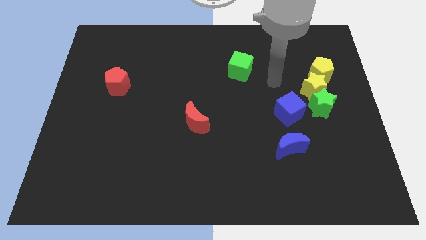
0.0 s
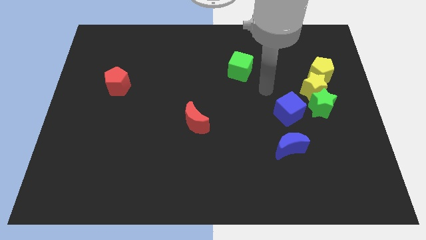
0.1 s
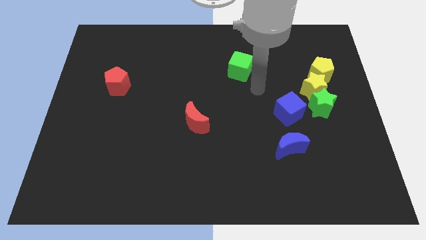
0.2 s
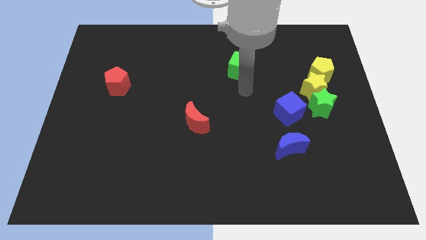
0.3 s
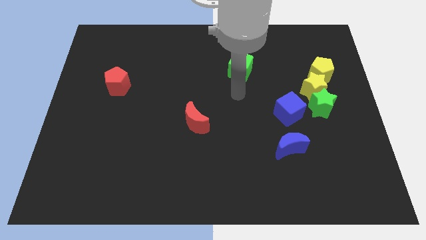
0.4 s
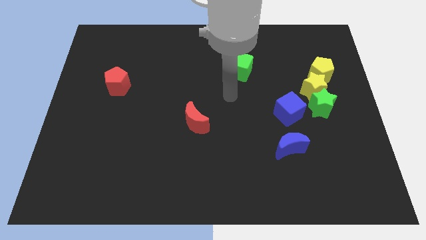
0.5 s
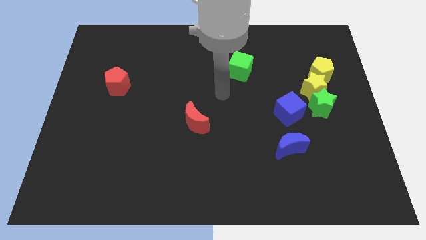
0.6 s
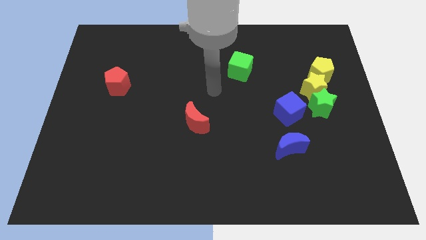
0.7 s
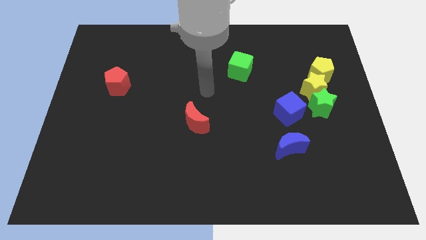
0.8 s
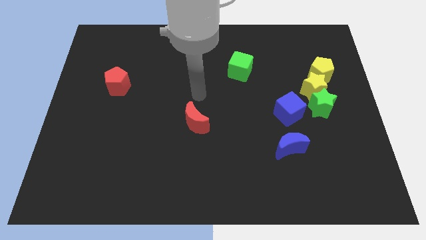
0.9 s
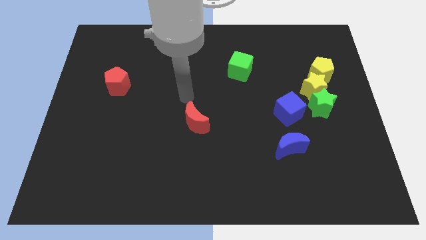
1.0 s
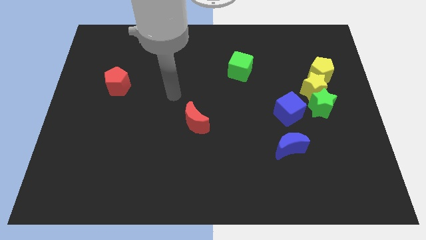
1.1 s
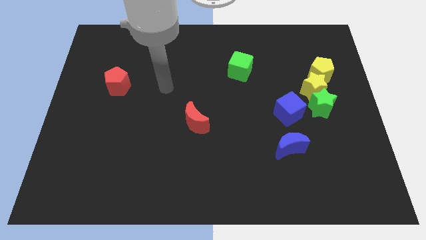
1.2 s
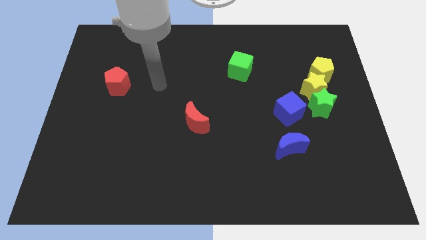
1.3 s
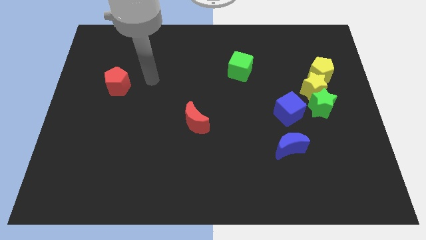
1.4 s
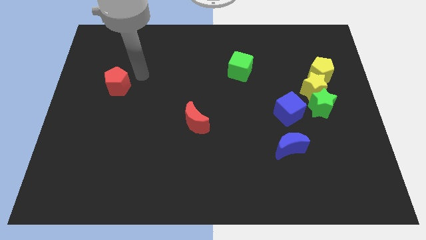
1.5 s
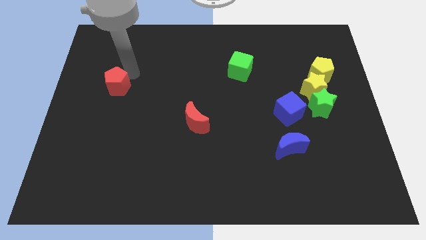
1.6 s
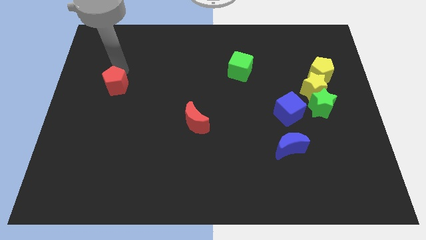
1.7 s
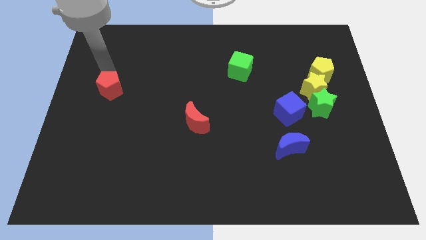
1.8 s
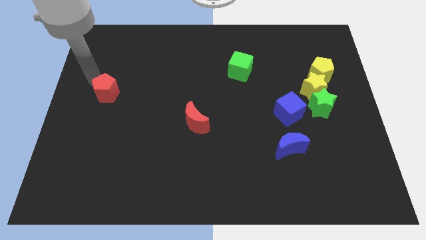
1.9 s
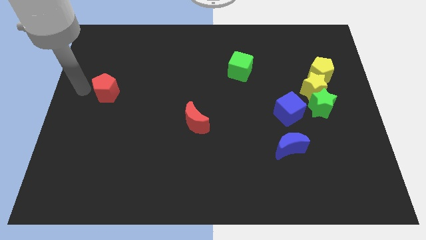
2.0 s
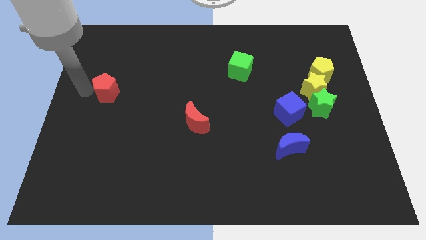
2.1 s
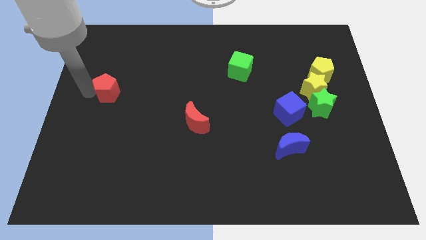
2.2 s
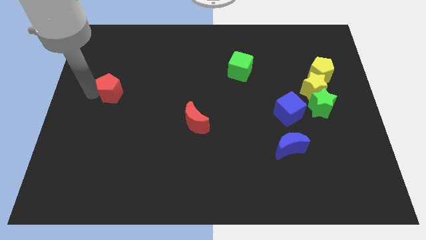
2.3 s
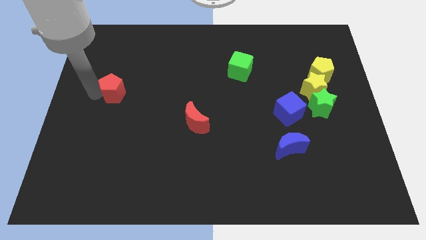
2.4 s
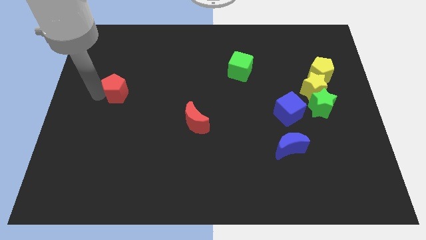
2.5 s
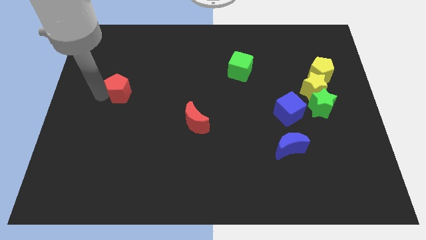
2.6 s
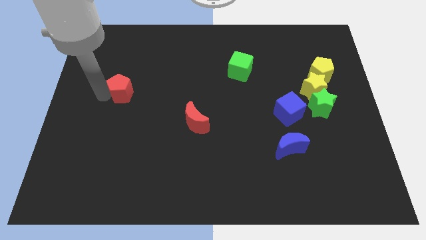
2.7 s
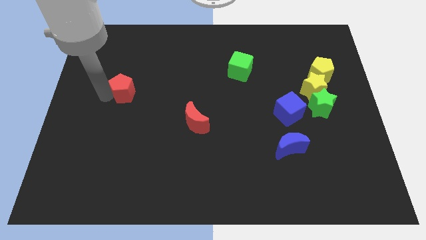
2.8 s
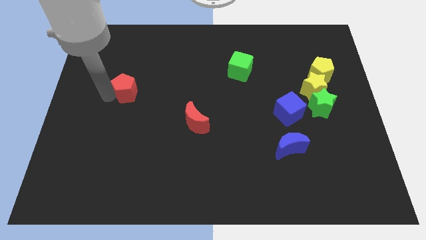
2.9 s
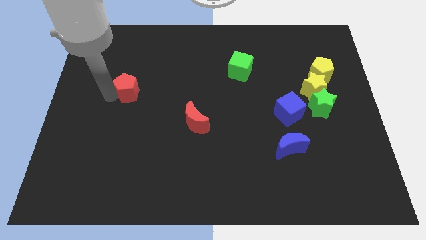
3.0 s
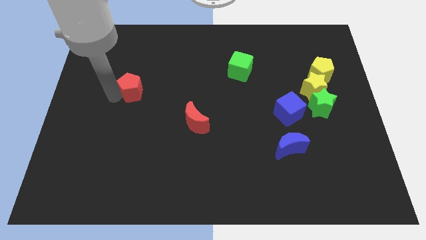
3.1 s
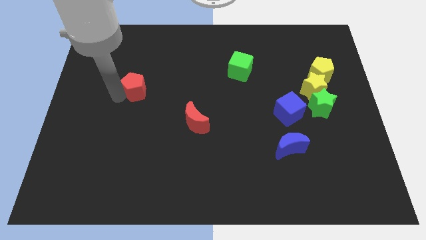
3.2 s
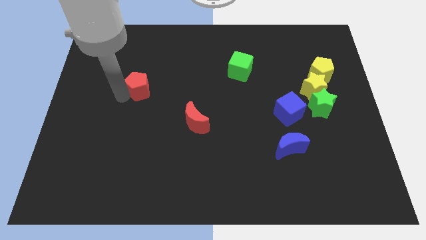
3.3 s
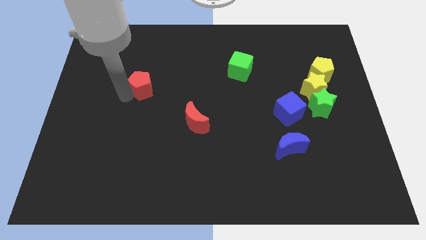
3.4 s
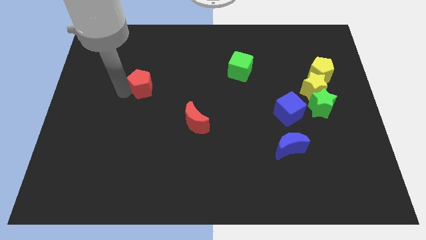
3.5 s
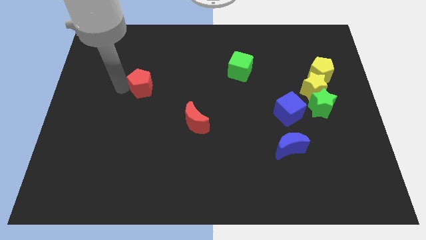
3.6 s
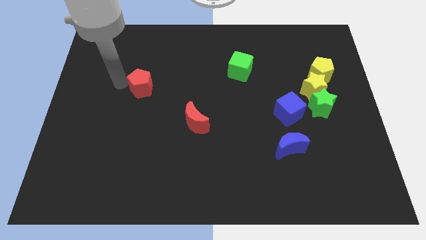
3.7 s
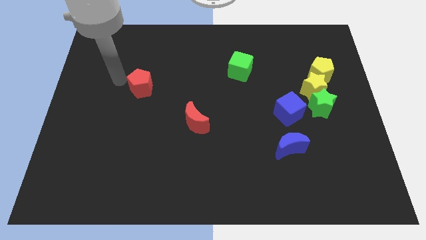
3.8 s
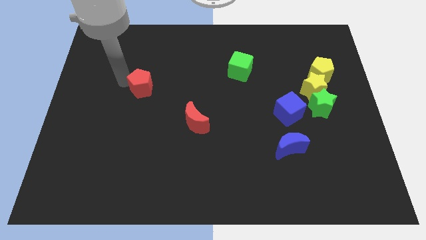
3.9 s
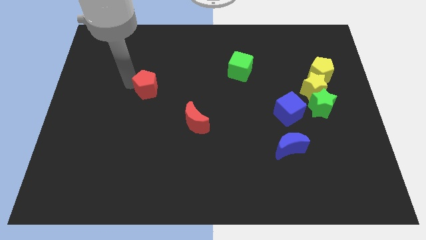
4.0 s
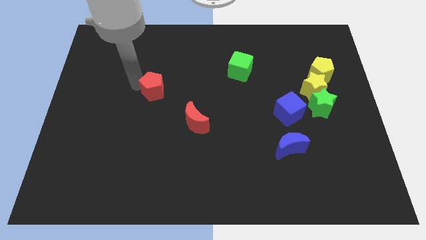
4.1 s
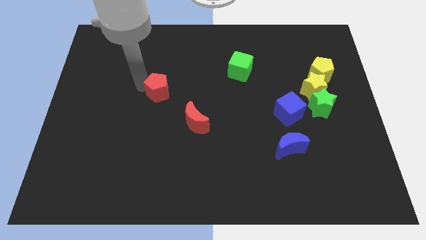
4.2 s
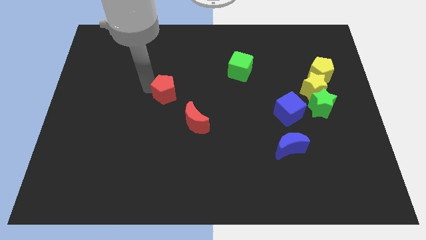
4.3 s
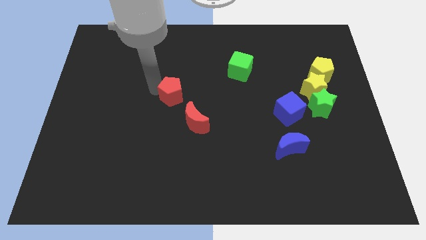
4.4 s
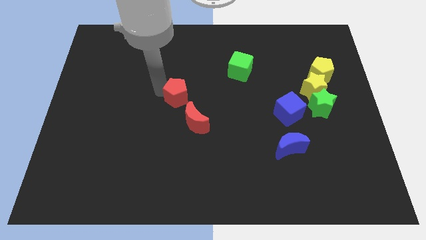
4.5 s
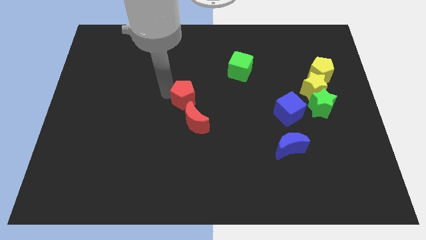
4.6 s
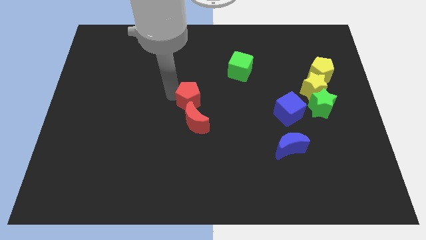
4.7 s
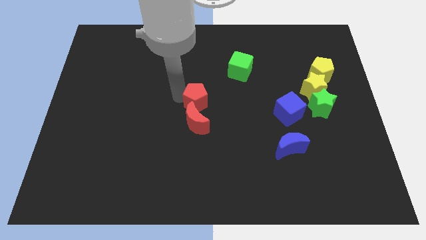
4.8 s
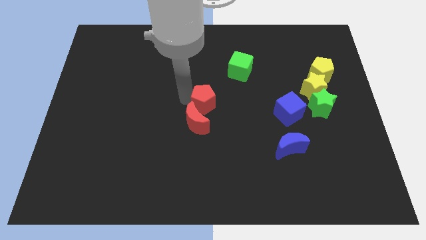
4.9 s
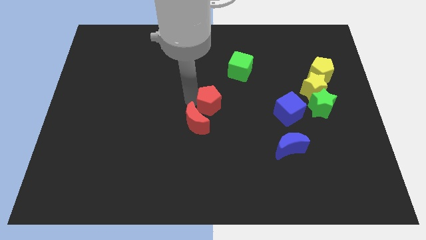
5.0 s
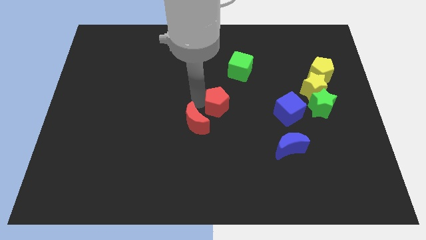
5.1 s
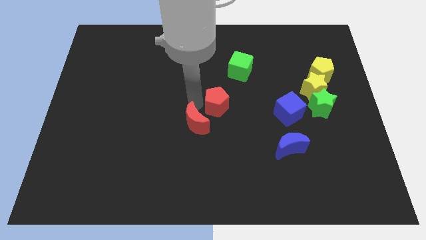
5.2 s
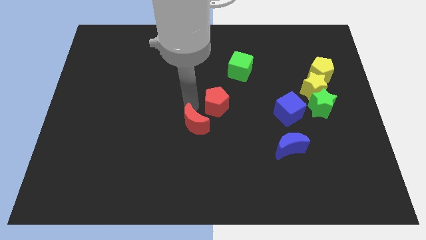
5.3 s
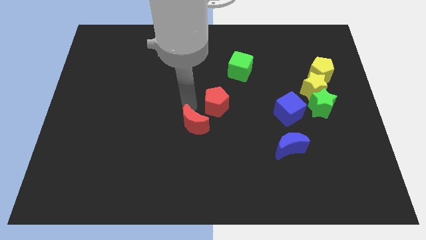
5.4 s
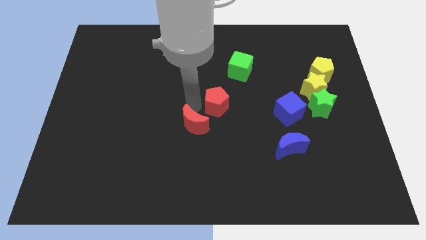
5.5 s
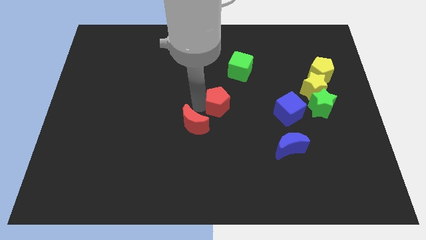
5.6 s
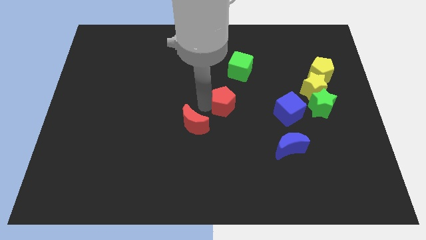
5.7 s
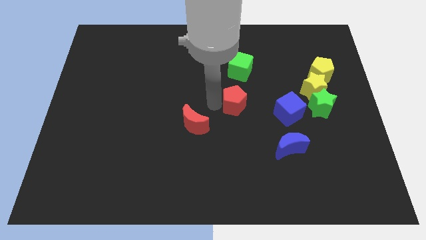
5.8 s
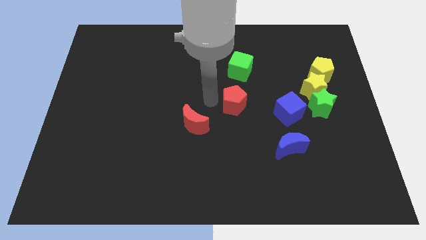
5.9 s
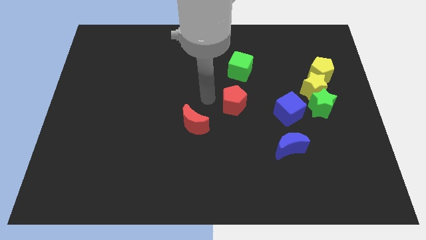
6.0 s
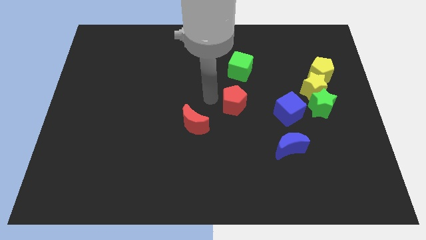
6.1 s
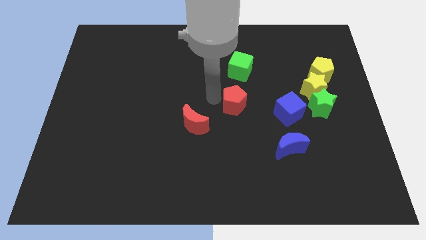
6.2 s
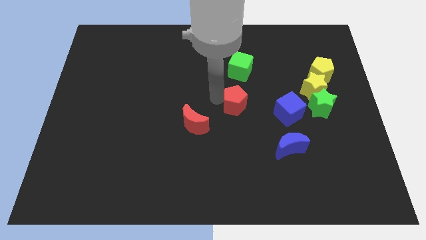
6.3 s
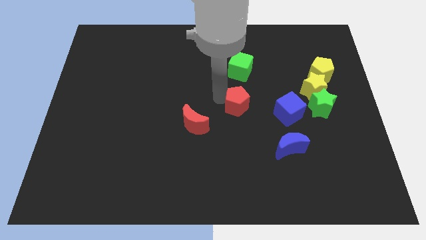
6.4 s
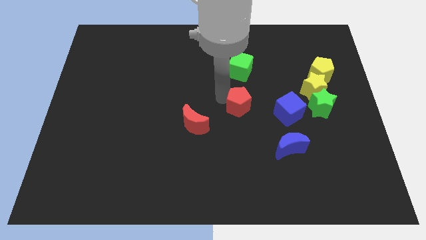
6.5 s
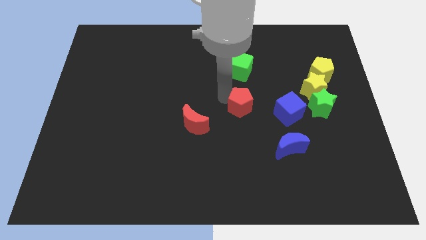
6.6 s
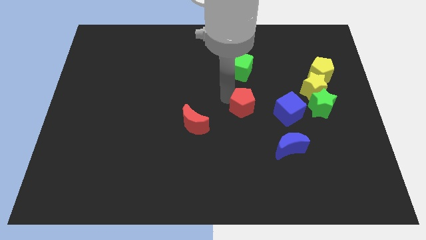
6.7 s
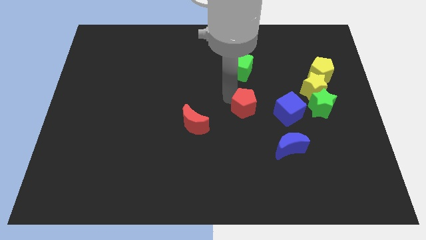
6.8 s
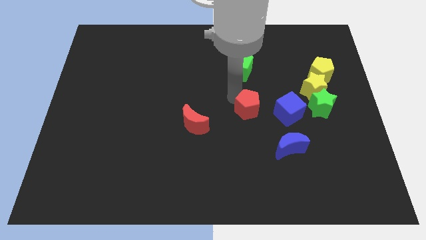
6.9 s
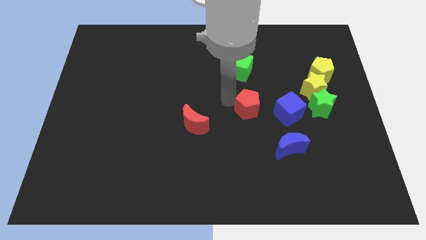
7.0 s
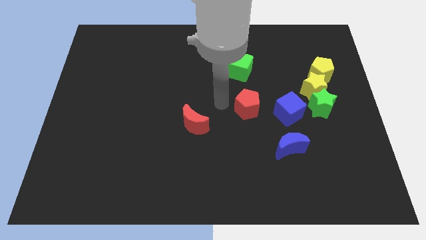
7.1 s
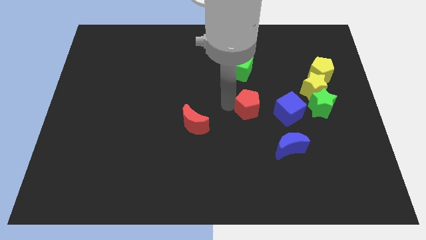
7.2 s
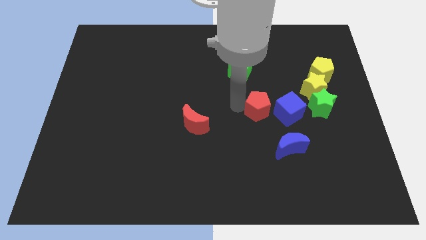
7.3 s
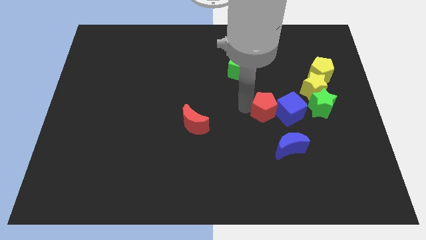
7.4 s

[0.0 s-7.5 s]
slide the red pentagon to the blue cube
